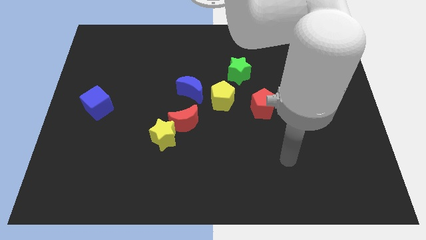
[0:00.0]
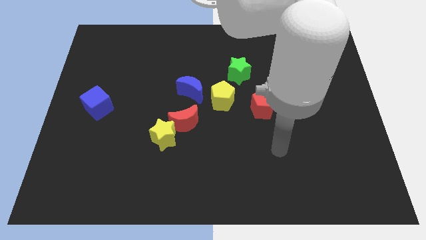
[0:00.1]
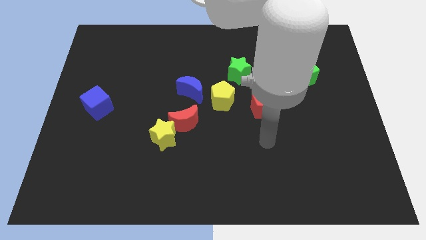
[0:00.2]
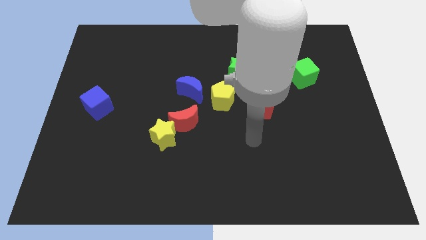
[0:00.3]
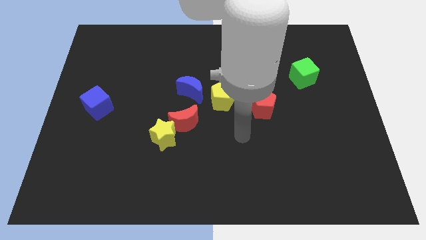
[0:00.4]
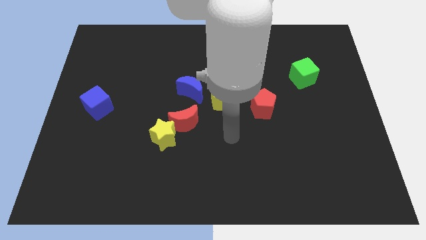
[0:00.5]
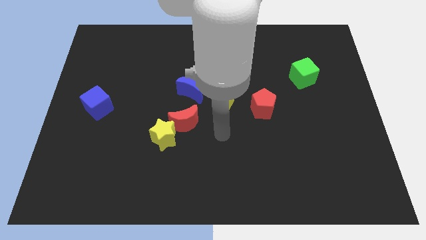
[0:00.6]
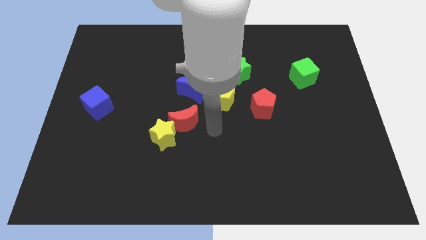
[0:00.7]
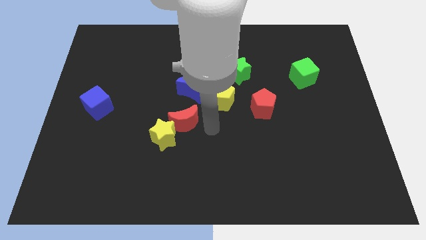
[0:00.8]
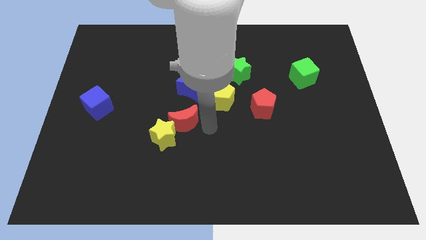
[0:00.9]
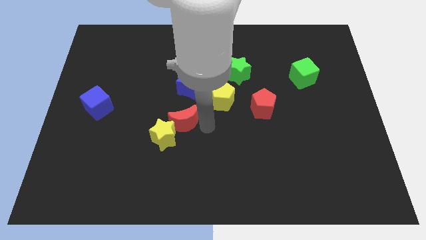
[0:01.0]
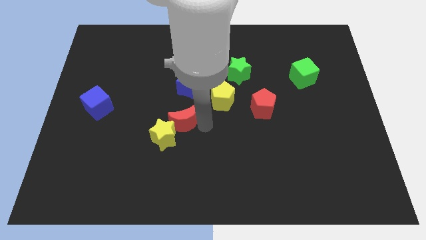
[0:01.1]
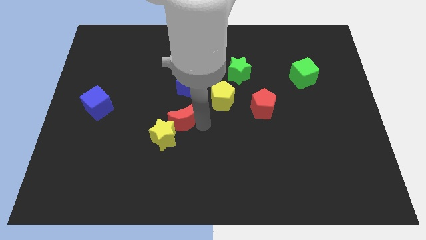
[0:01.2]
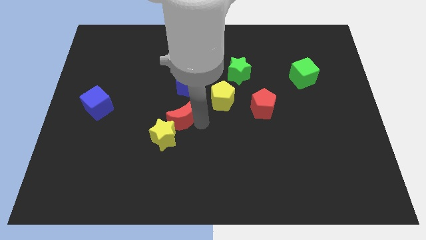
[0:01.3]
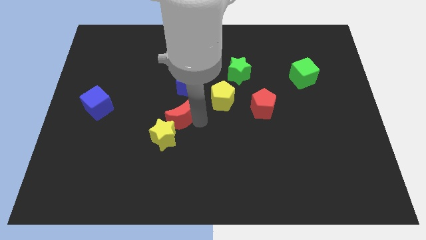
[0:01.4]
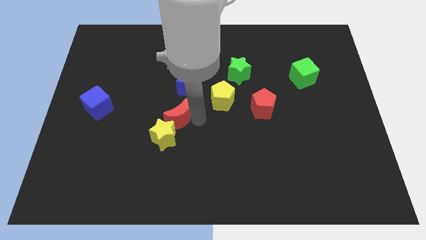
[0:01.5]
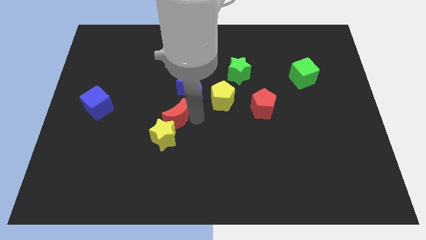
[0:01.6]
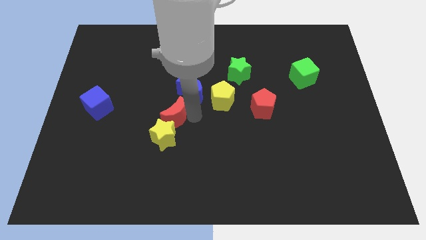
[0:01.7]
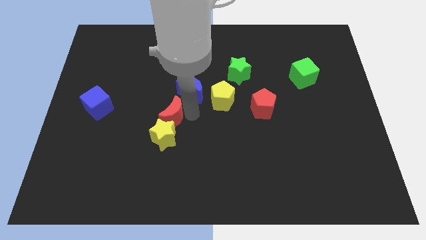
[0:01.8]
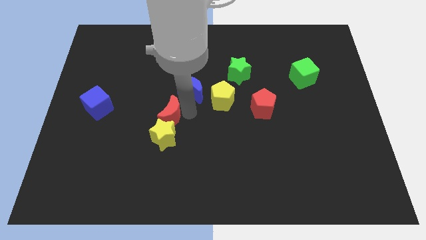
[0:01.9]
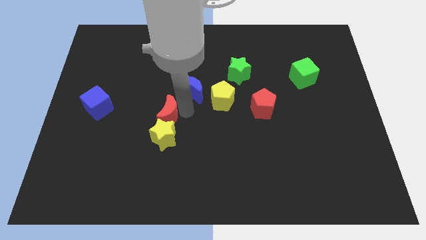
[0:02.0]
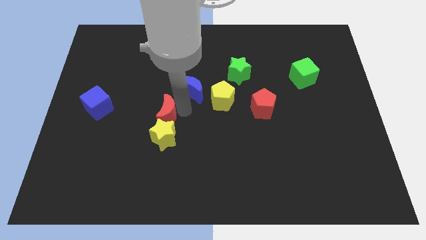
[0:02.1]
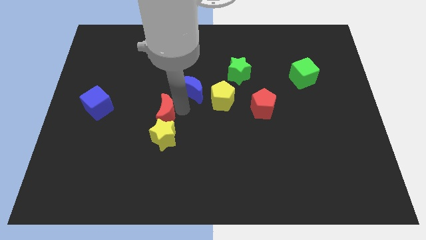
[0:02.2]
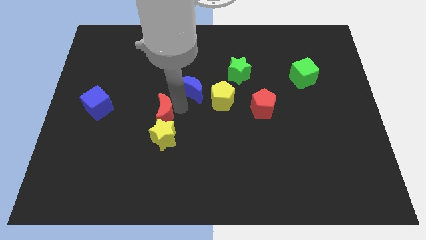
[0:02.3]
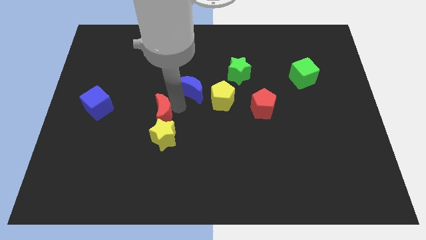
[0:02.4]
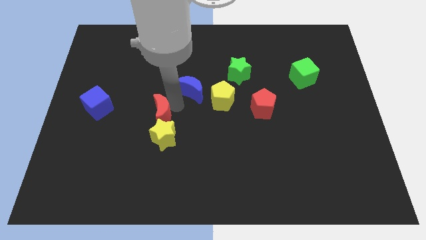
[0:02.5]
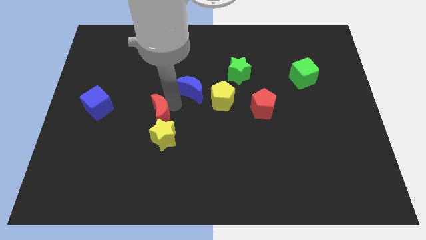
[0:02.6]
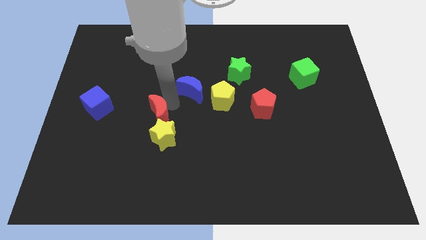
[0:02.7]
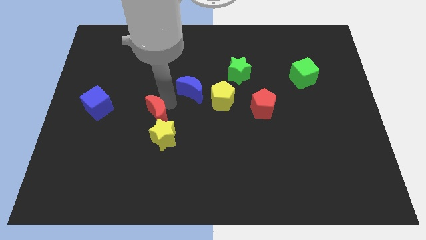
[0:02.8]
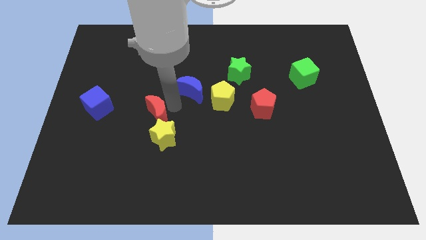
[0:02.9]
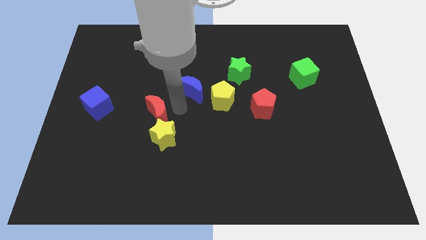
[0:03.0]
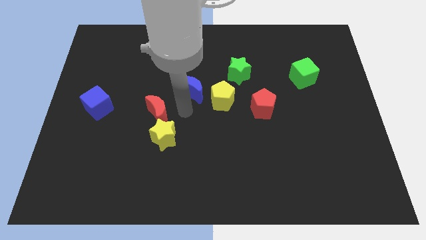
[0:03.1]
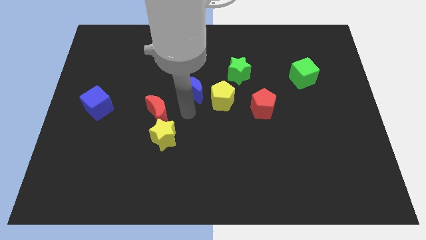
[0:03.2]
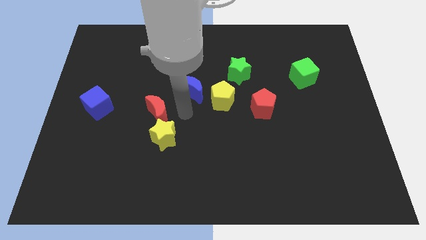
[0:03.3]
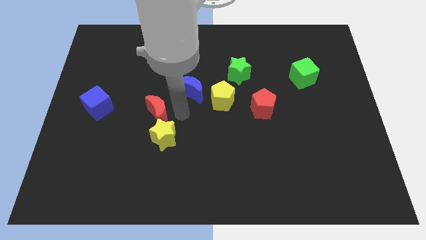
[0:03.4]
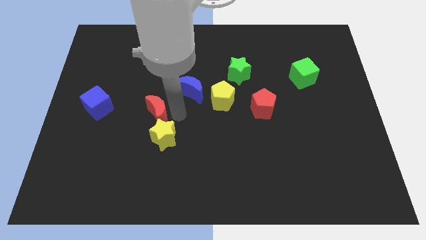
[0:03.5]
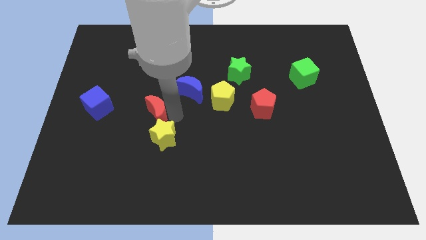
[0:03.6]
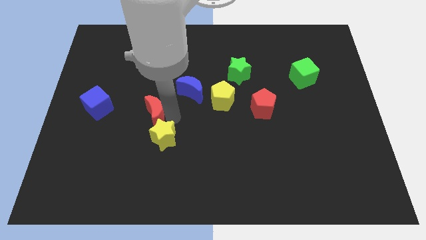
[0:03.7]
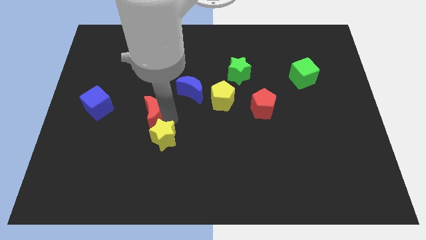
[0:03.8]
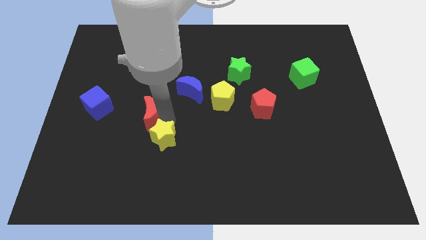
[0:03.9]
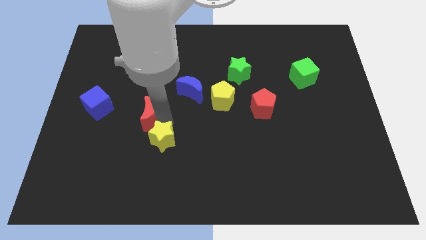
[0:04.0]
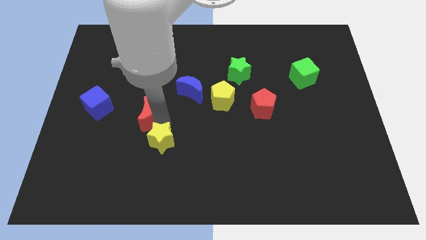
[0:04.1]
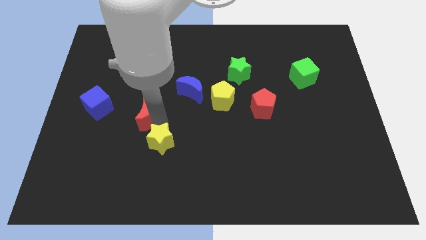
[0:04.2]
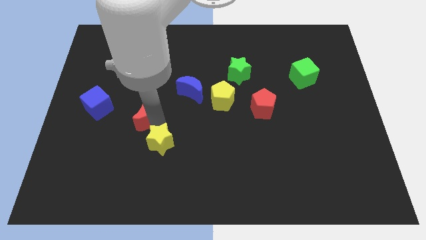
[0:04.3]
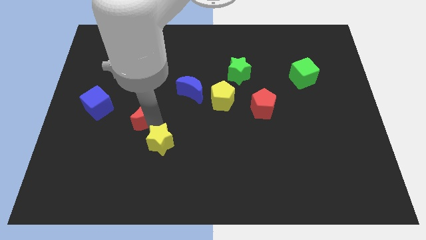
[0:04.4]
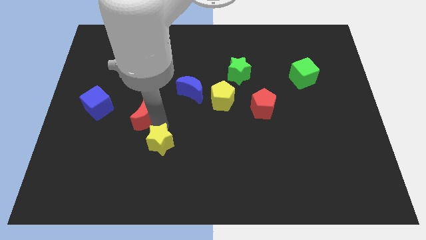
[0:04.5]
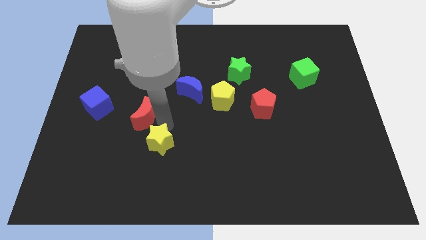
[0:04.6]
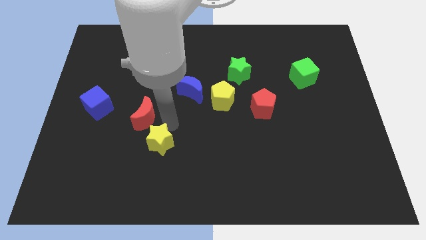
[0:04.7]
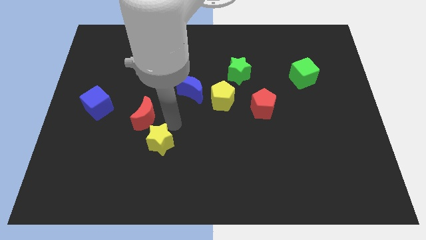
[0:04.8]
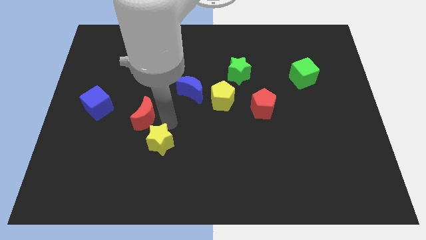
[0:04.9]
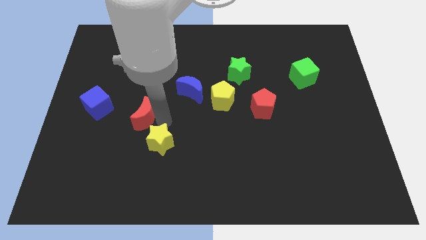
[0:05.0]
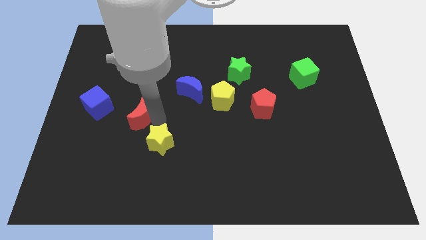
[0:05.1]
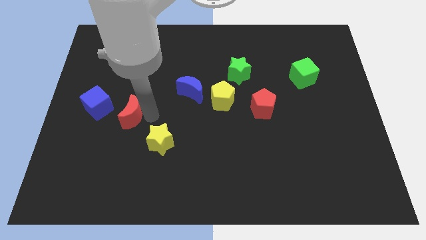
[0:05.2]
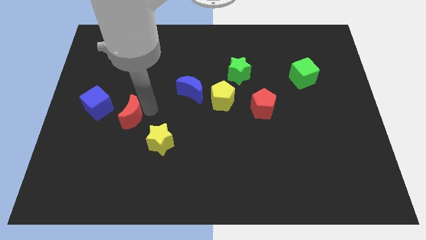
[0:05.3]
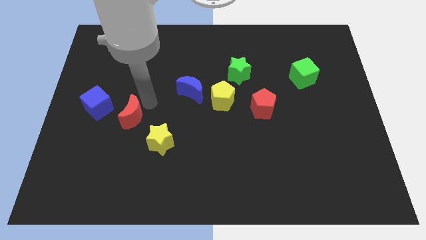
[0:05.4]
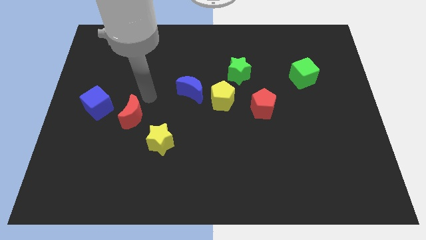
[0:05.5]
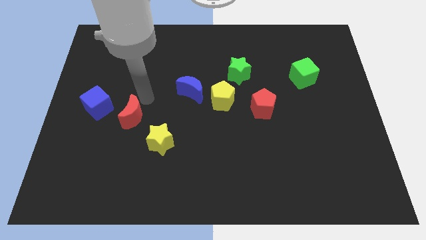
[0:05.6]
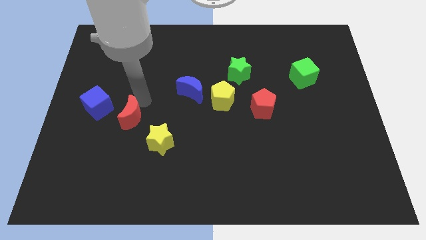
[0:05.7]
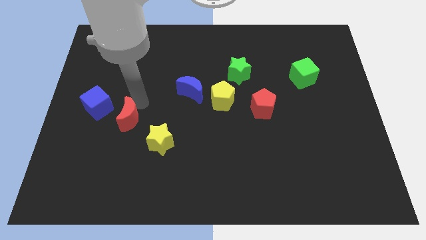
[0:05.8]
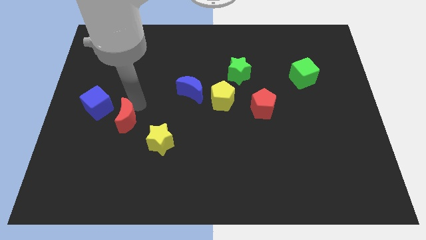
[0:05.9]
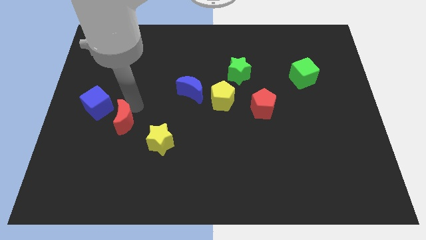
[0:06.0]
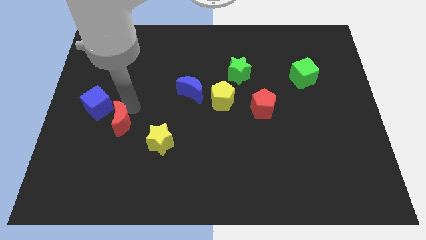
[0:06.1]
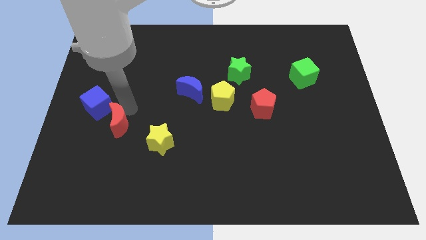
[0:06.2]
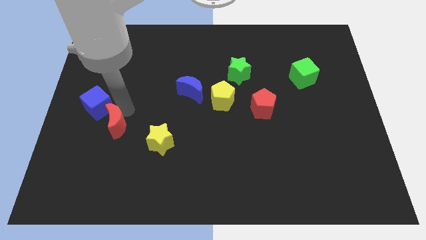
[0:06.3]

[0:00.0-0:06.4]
slide the red moon just left of the yellow star

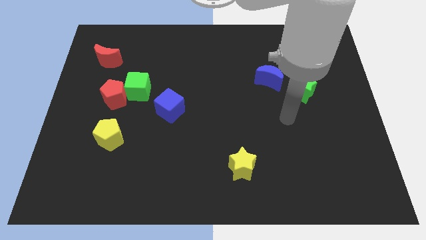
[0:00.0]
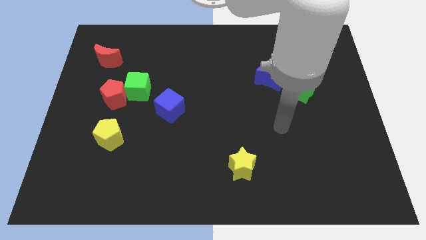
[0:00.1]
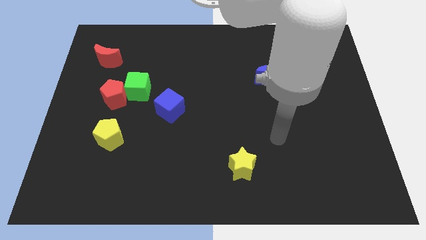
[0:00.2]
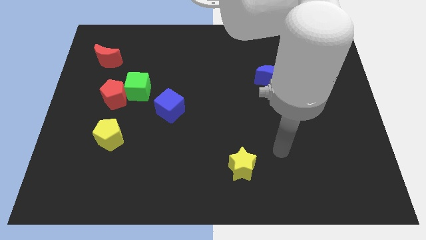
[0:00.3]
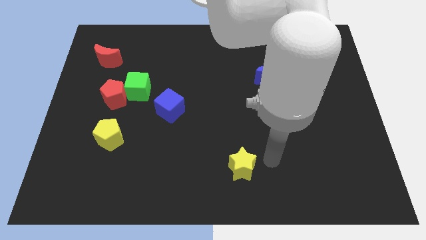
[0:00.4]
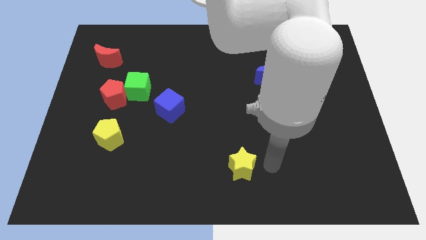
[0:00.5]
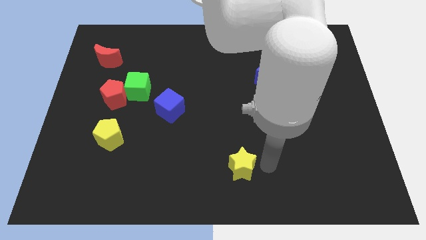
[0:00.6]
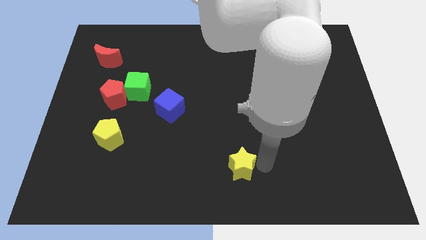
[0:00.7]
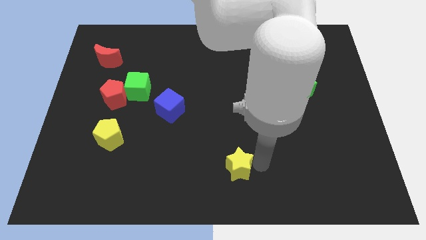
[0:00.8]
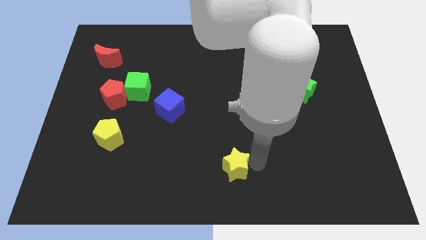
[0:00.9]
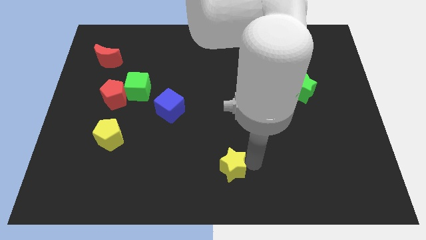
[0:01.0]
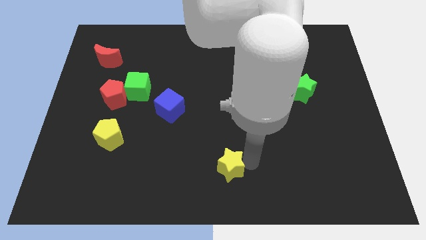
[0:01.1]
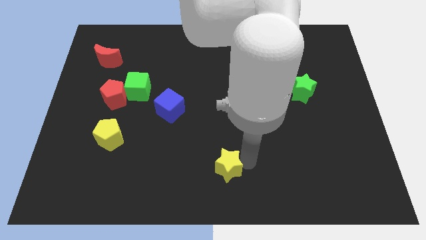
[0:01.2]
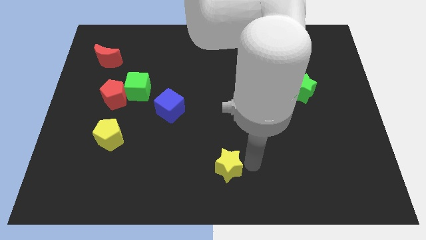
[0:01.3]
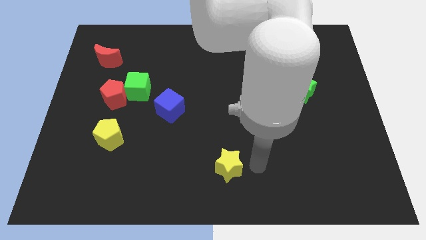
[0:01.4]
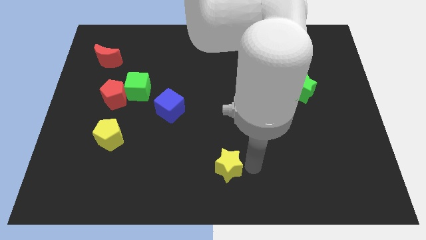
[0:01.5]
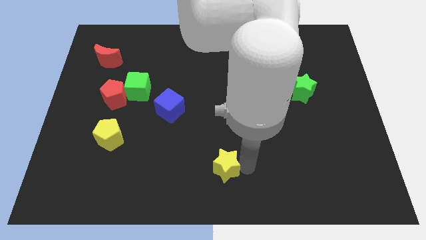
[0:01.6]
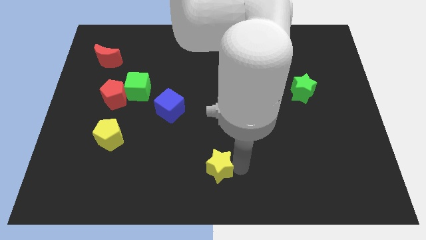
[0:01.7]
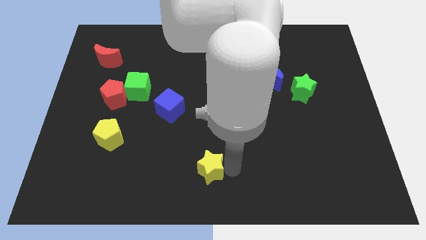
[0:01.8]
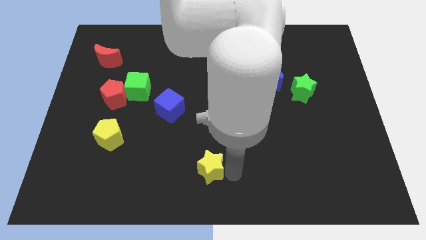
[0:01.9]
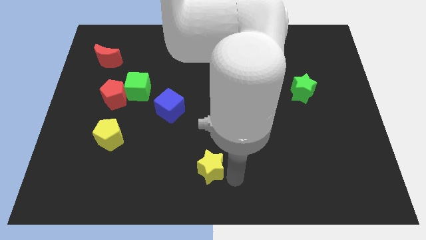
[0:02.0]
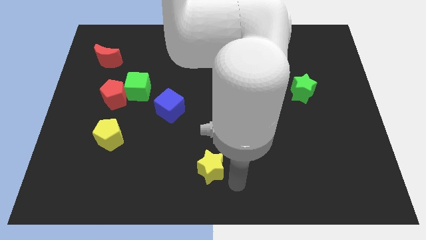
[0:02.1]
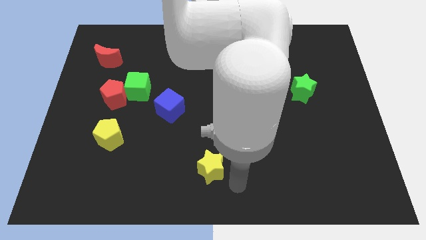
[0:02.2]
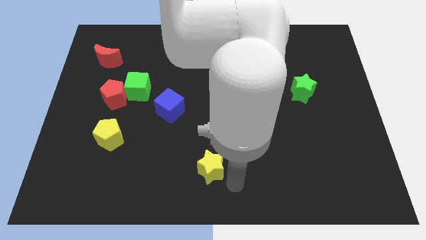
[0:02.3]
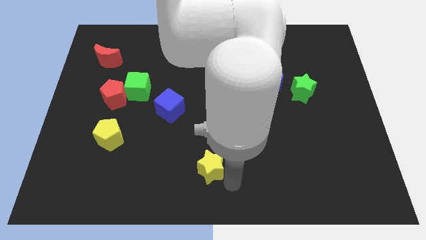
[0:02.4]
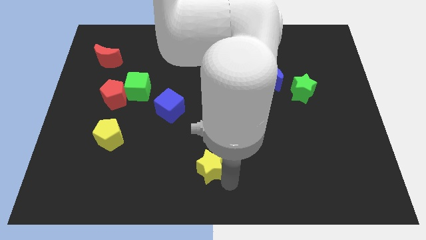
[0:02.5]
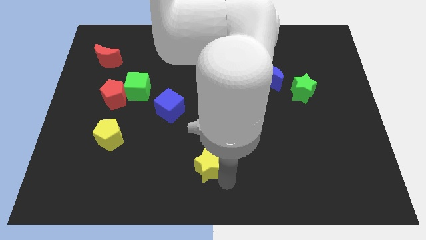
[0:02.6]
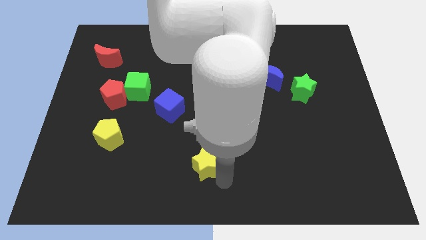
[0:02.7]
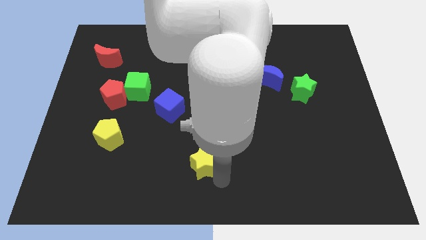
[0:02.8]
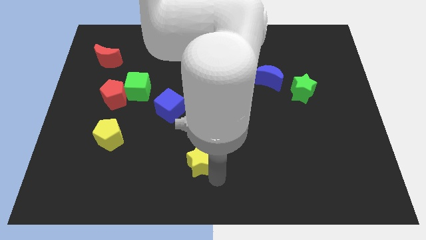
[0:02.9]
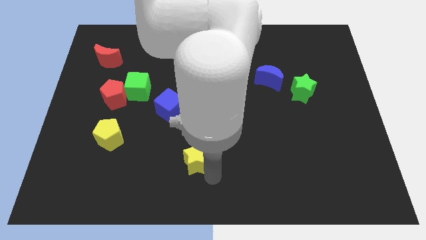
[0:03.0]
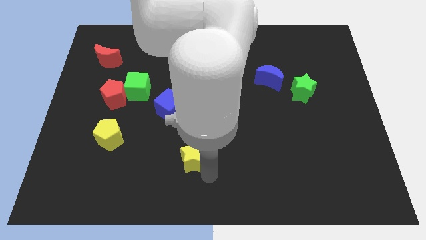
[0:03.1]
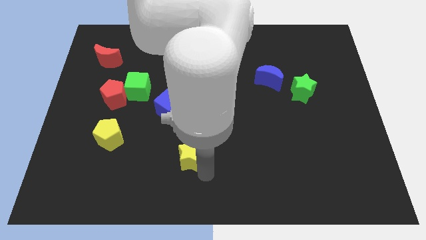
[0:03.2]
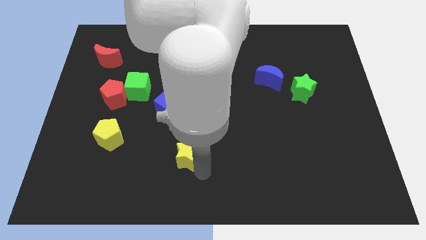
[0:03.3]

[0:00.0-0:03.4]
move the yellow star to the bottom side of the blue cube
